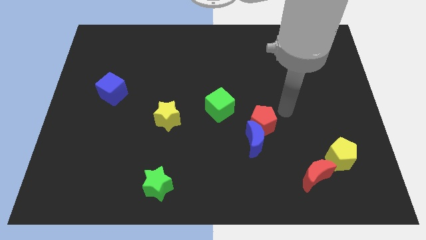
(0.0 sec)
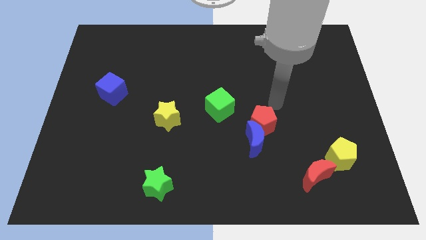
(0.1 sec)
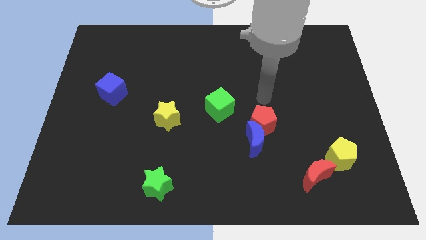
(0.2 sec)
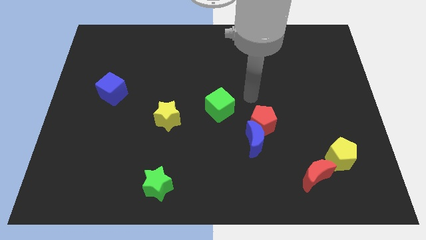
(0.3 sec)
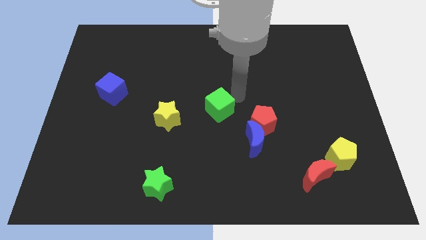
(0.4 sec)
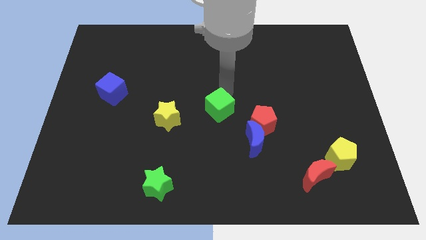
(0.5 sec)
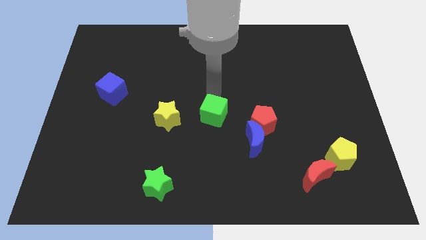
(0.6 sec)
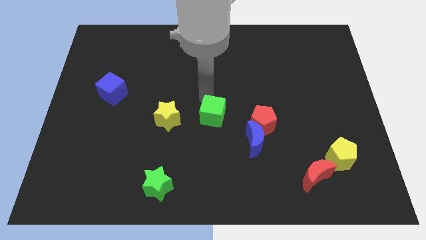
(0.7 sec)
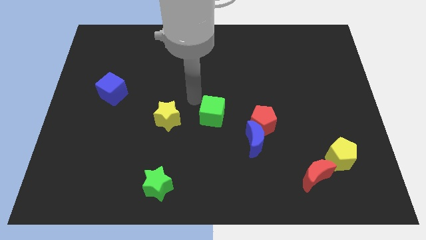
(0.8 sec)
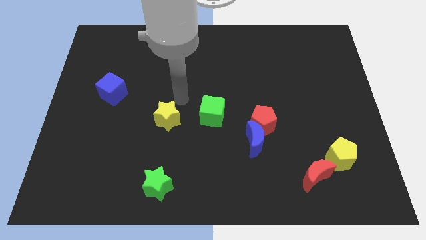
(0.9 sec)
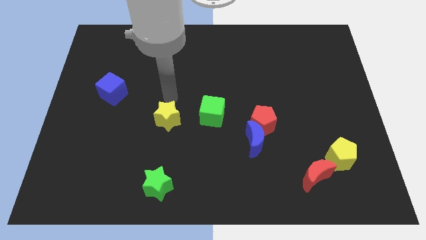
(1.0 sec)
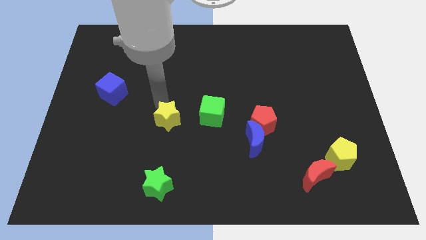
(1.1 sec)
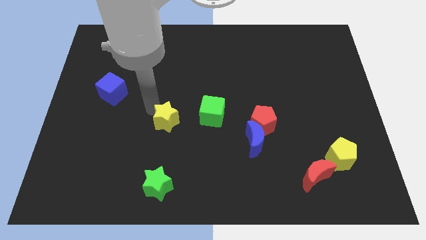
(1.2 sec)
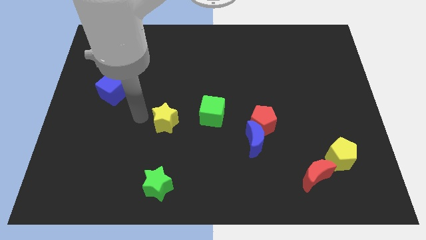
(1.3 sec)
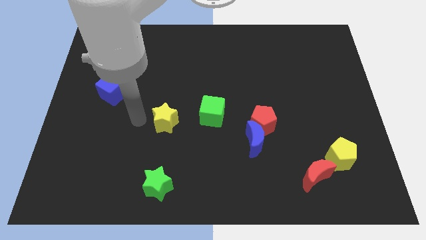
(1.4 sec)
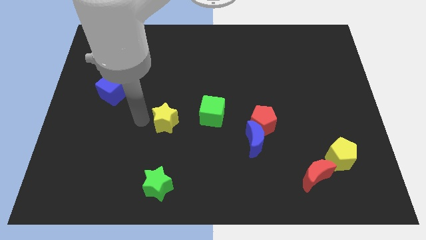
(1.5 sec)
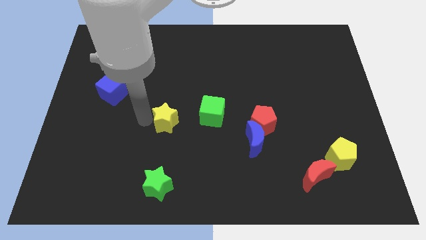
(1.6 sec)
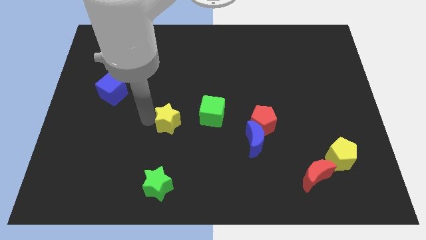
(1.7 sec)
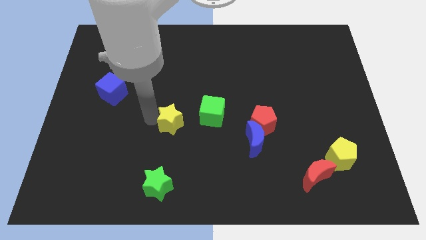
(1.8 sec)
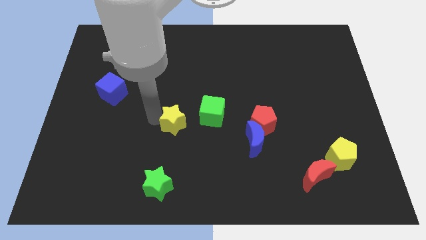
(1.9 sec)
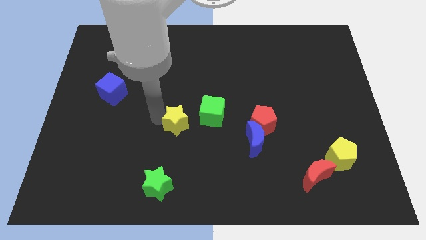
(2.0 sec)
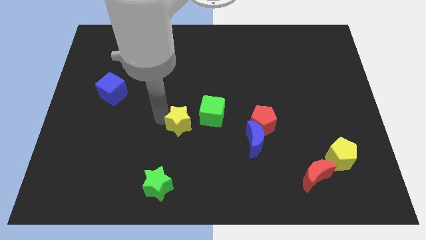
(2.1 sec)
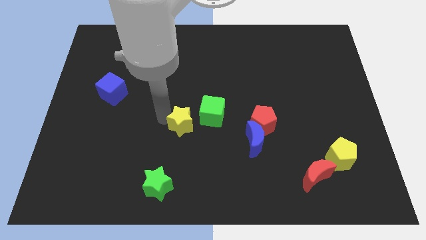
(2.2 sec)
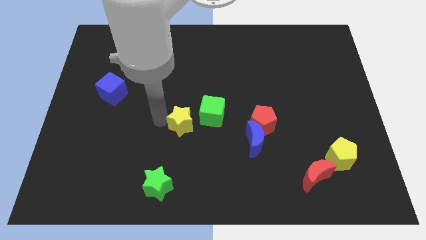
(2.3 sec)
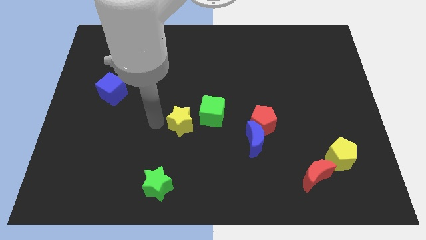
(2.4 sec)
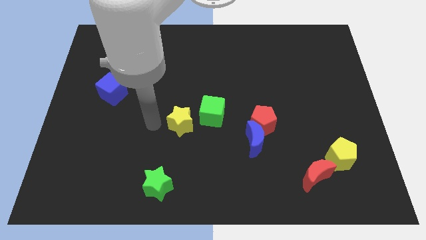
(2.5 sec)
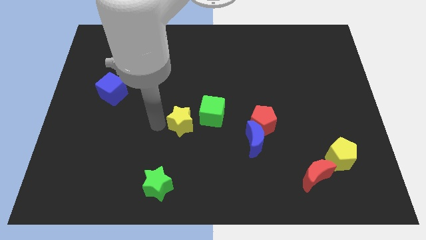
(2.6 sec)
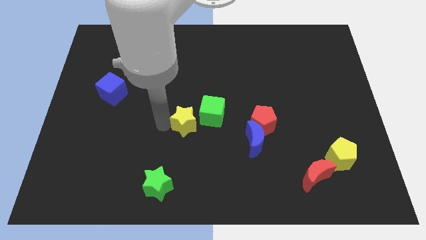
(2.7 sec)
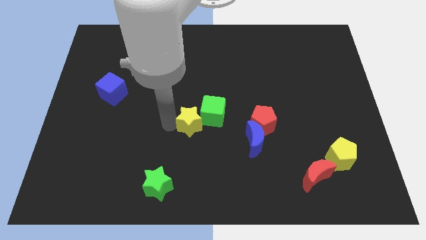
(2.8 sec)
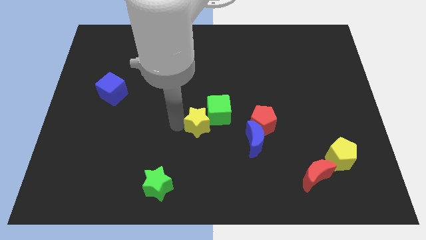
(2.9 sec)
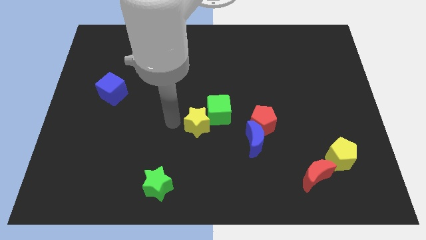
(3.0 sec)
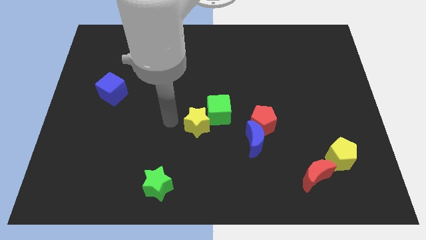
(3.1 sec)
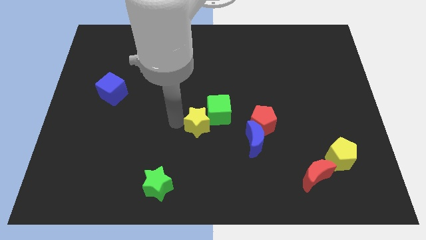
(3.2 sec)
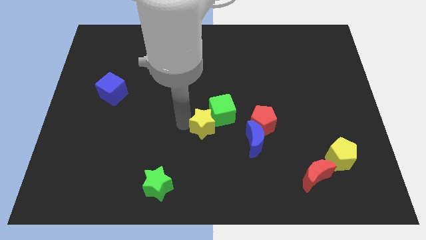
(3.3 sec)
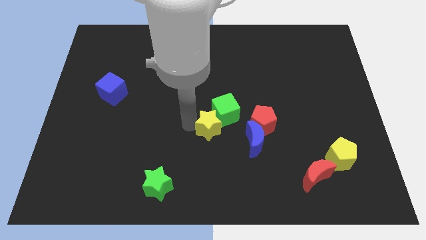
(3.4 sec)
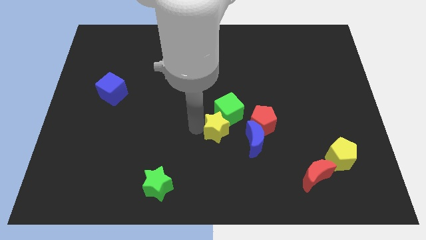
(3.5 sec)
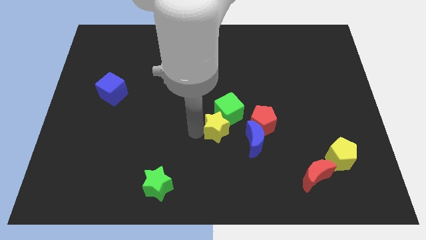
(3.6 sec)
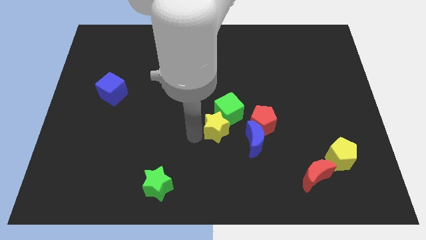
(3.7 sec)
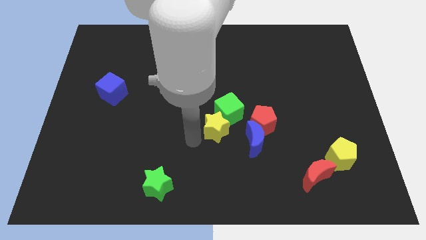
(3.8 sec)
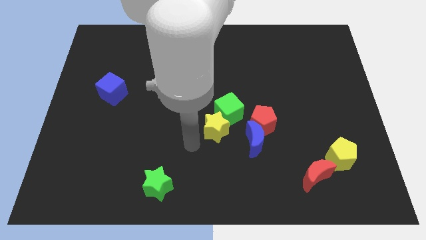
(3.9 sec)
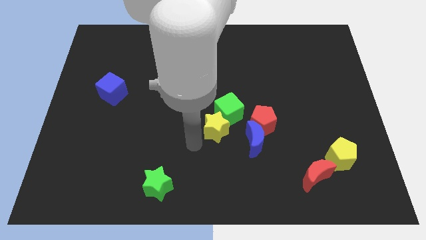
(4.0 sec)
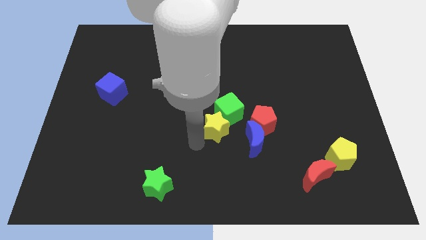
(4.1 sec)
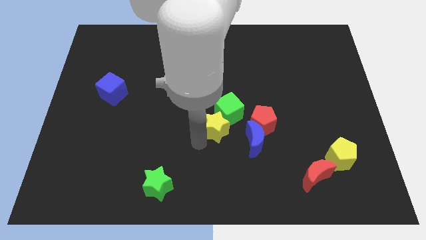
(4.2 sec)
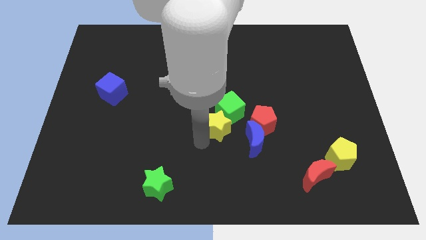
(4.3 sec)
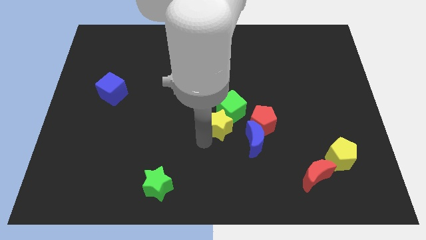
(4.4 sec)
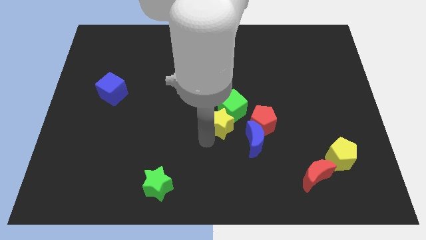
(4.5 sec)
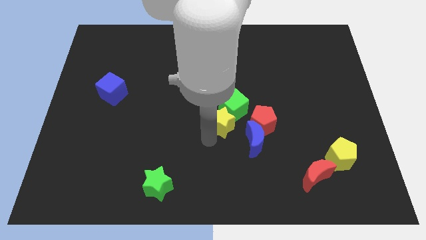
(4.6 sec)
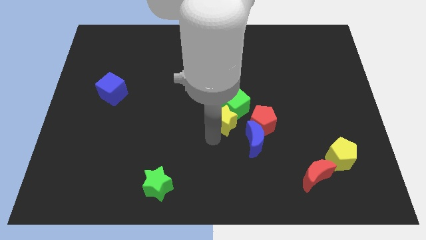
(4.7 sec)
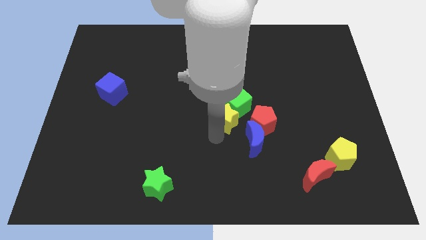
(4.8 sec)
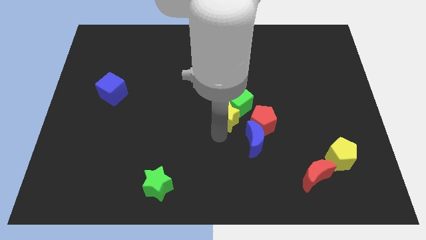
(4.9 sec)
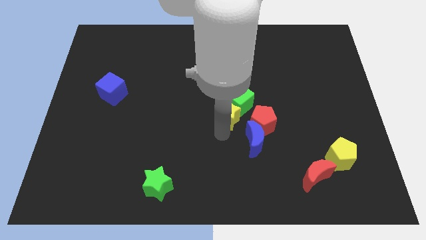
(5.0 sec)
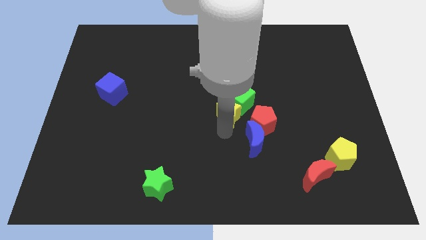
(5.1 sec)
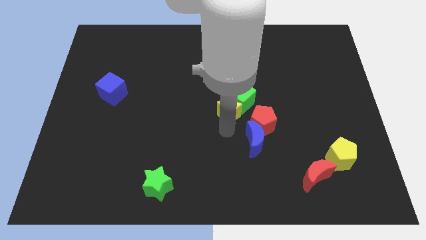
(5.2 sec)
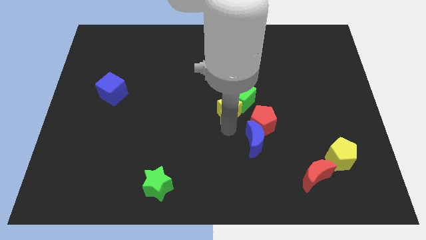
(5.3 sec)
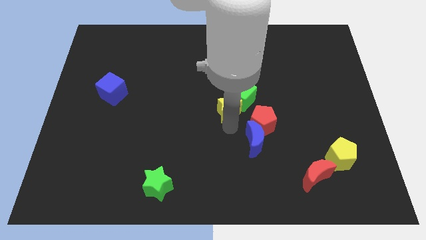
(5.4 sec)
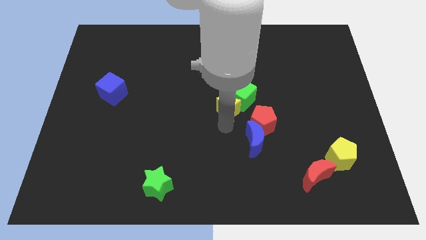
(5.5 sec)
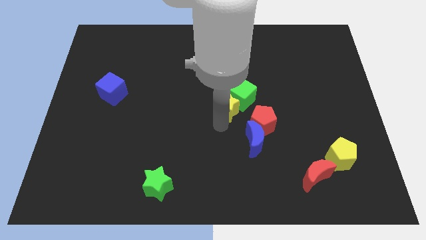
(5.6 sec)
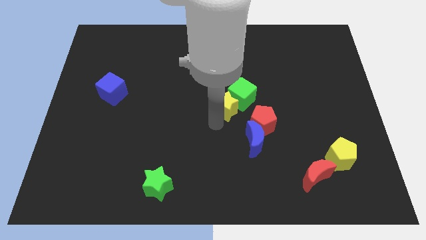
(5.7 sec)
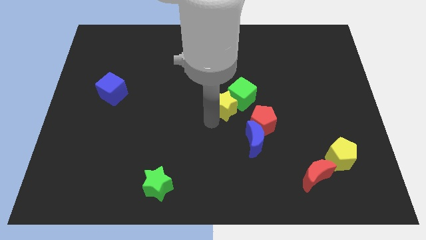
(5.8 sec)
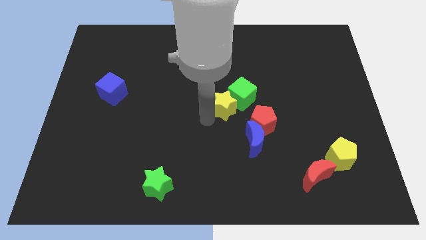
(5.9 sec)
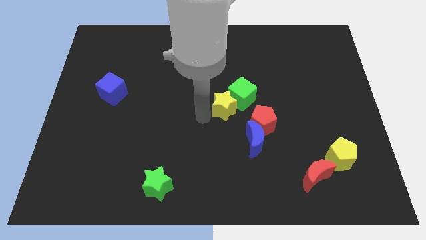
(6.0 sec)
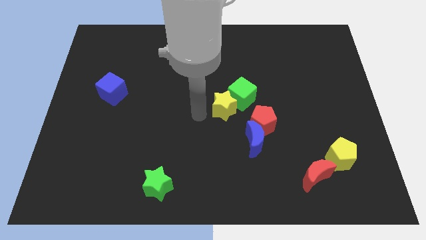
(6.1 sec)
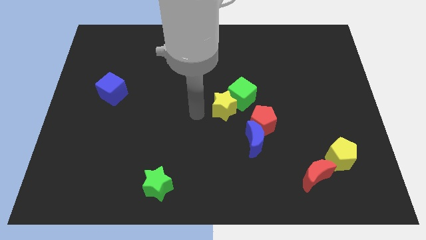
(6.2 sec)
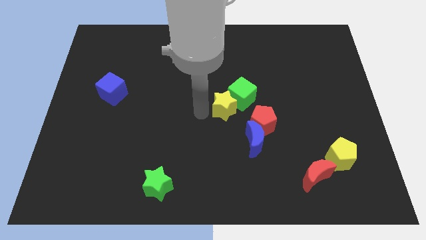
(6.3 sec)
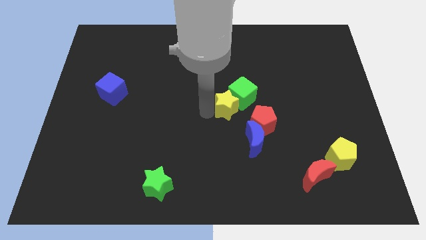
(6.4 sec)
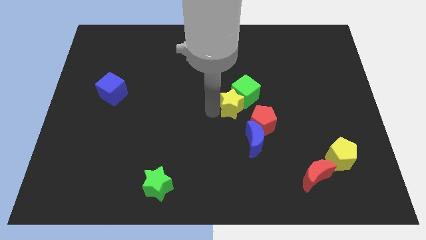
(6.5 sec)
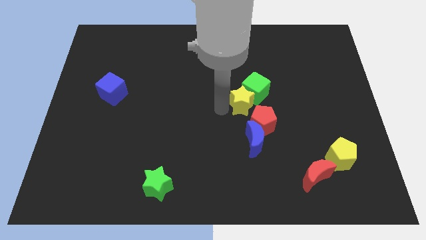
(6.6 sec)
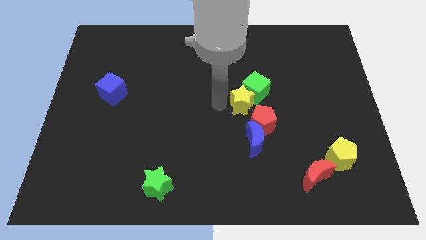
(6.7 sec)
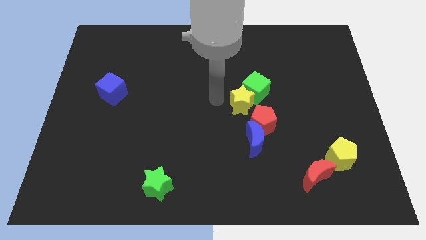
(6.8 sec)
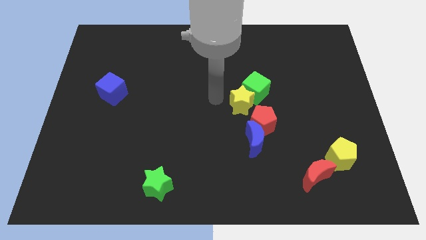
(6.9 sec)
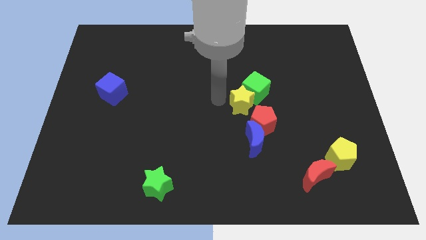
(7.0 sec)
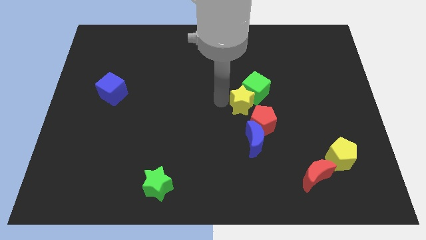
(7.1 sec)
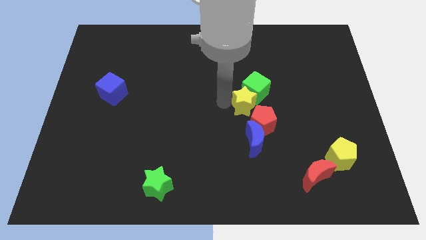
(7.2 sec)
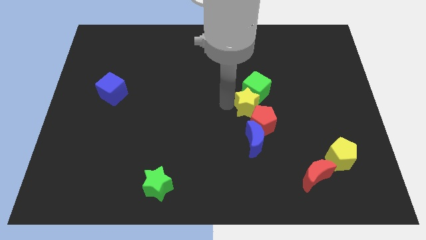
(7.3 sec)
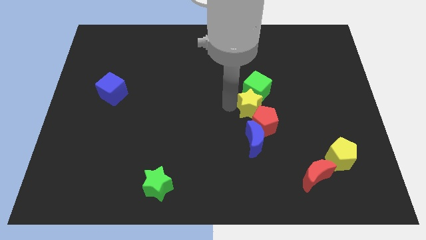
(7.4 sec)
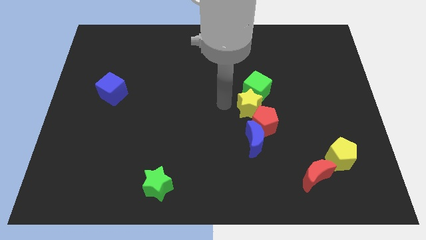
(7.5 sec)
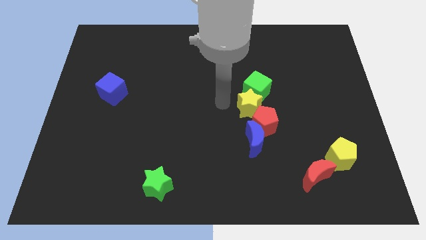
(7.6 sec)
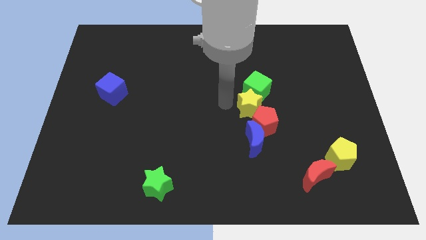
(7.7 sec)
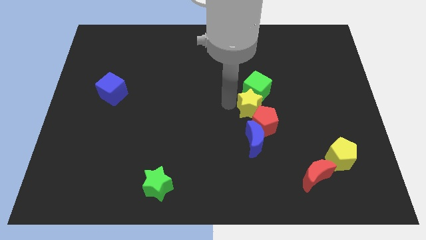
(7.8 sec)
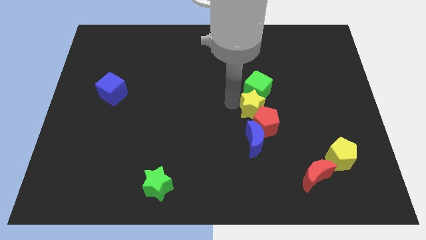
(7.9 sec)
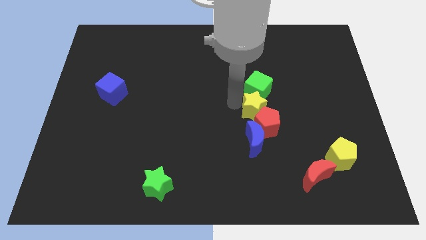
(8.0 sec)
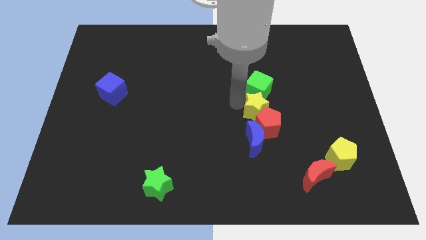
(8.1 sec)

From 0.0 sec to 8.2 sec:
slide the yellow star to the right
